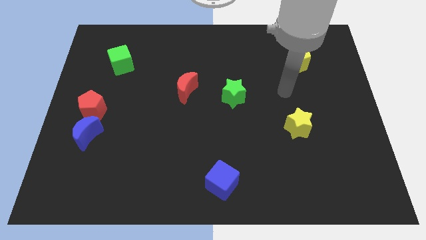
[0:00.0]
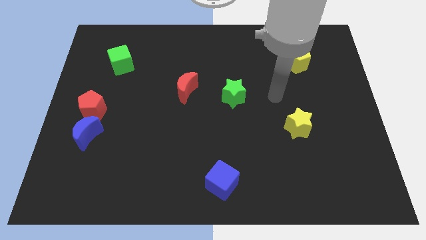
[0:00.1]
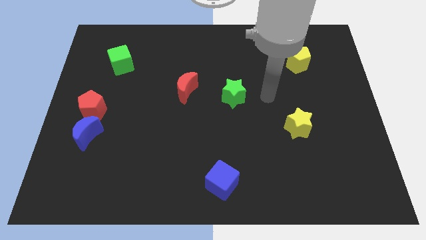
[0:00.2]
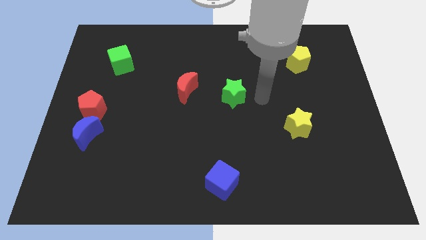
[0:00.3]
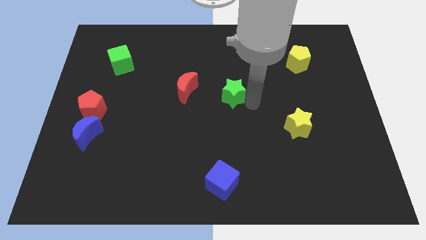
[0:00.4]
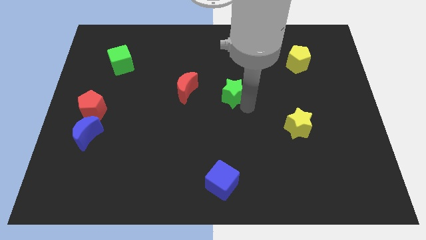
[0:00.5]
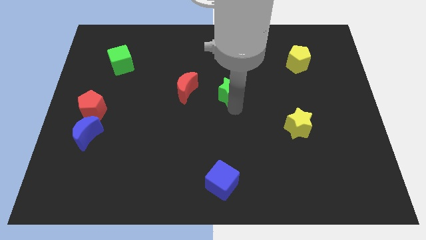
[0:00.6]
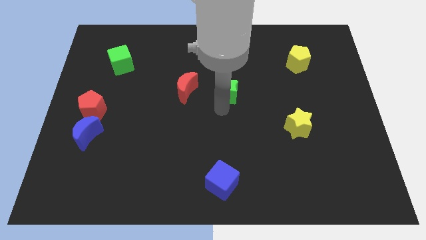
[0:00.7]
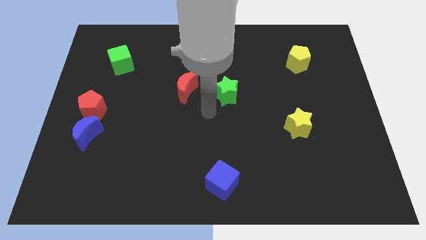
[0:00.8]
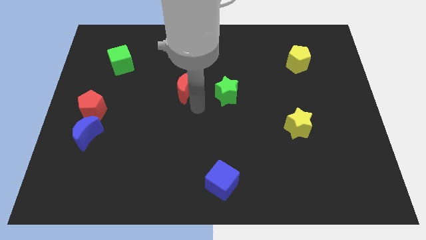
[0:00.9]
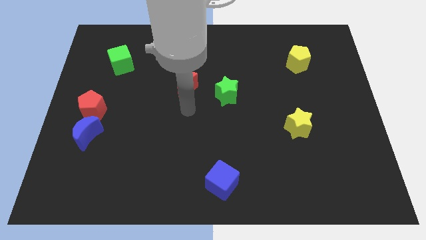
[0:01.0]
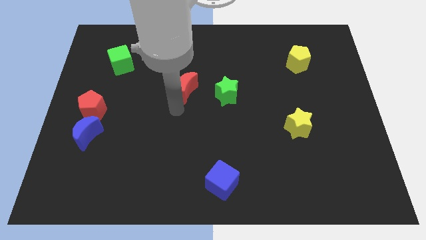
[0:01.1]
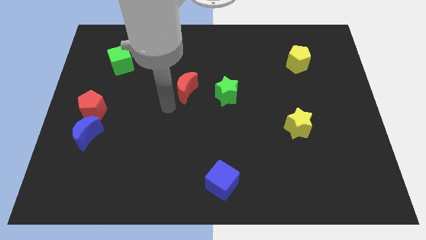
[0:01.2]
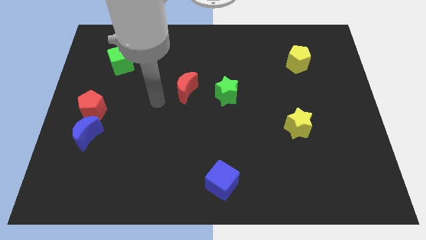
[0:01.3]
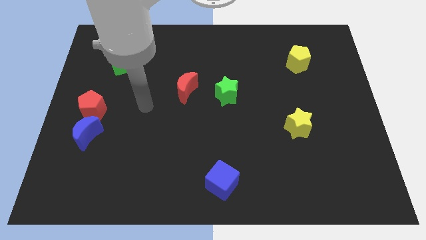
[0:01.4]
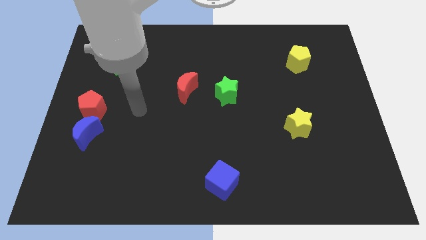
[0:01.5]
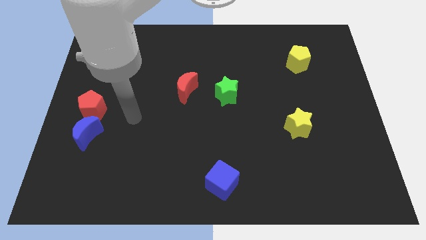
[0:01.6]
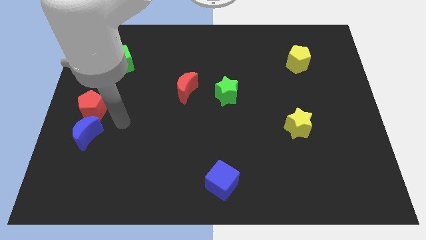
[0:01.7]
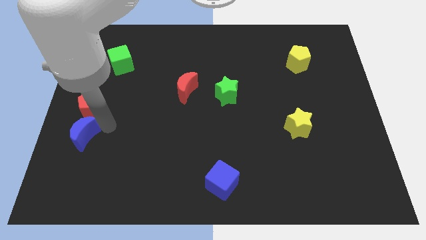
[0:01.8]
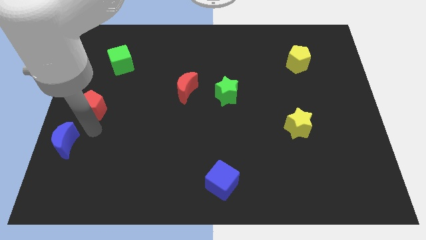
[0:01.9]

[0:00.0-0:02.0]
pull the red pentagon apart from the blue moon

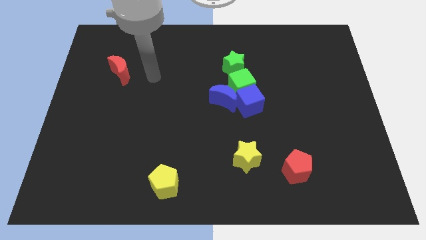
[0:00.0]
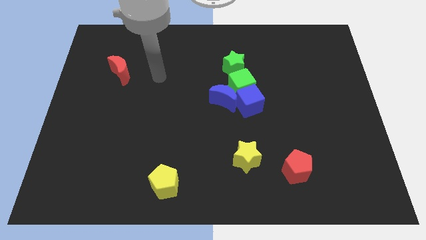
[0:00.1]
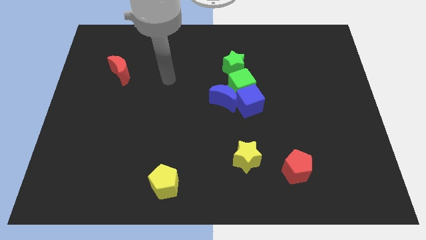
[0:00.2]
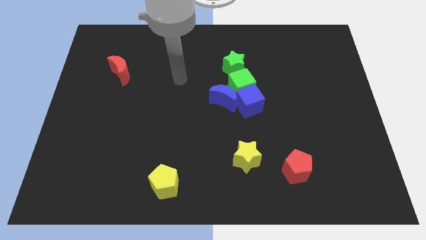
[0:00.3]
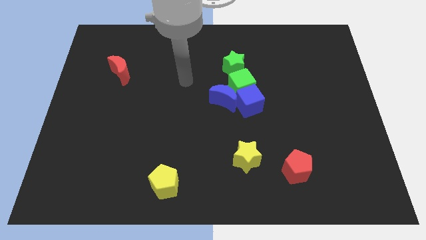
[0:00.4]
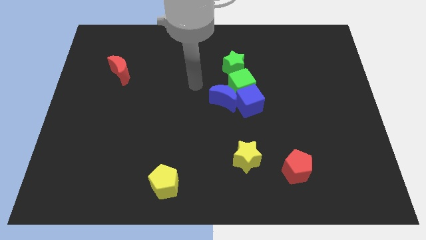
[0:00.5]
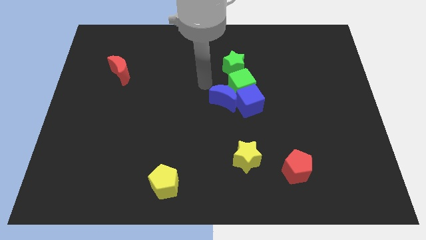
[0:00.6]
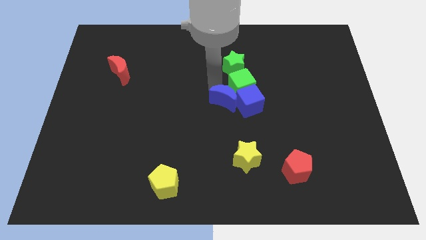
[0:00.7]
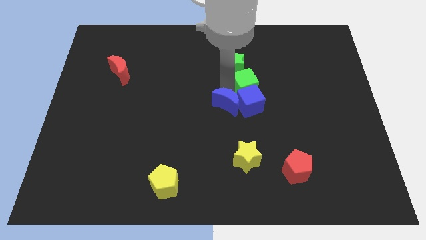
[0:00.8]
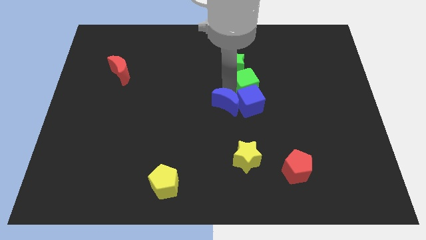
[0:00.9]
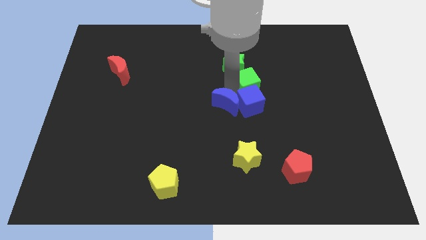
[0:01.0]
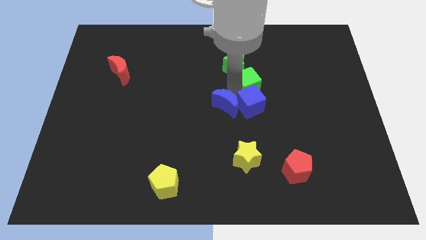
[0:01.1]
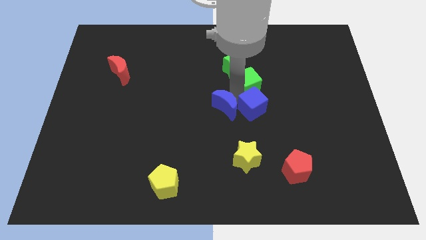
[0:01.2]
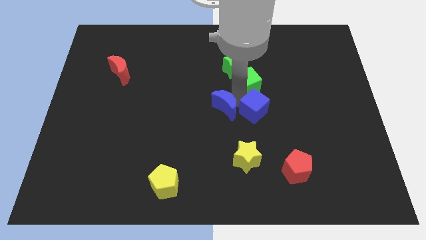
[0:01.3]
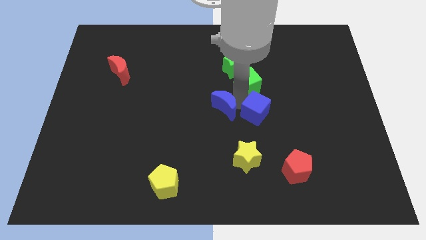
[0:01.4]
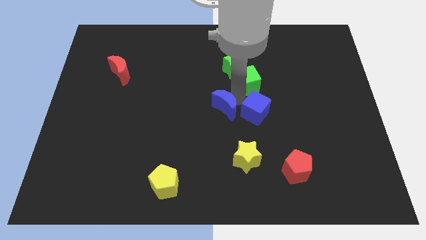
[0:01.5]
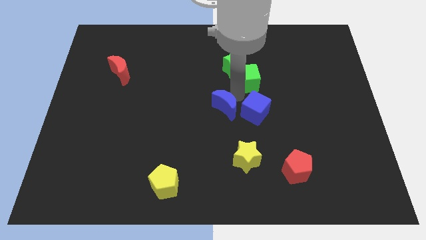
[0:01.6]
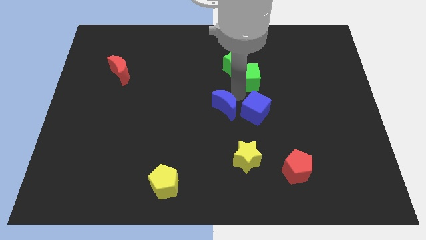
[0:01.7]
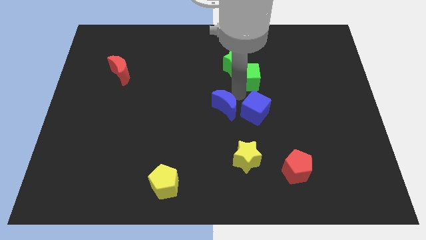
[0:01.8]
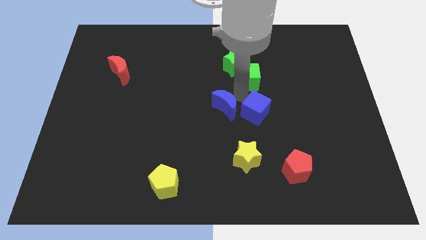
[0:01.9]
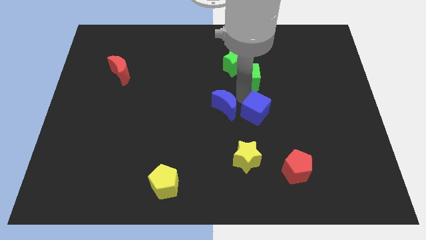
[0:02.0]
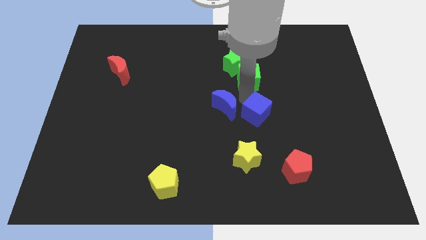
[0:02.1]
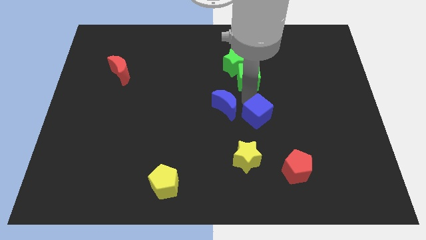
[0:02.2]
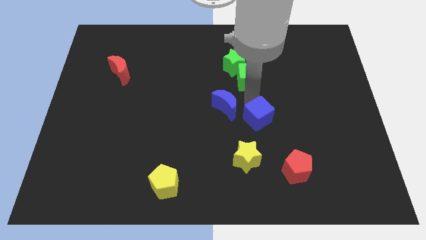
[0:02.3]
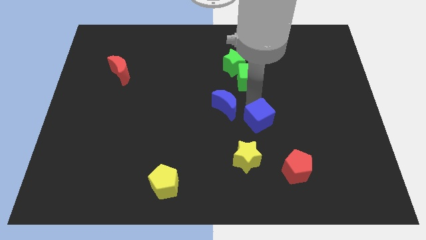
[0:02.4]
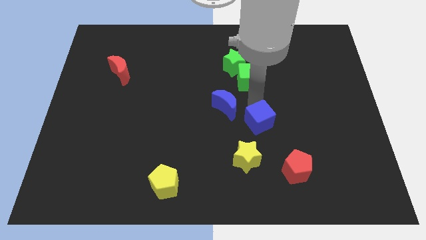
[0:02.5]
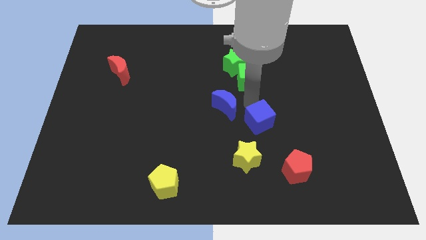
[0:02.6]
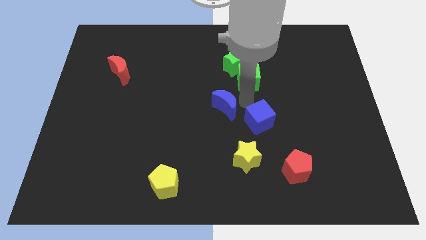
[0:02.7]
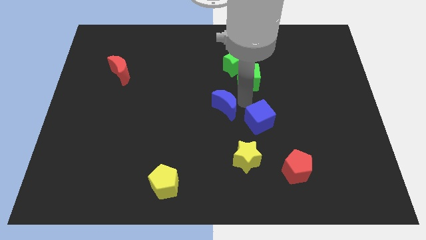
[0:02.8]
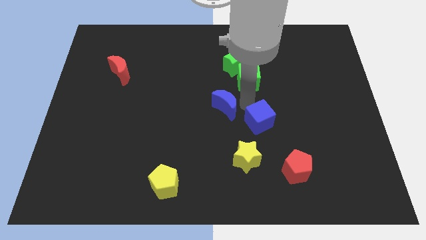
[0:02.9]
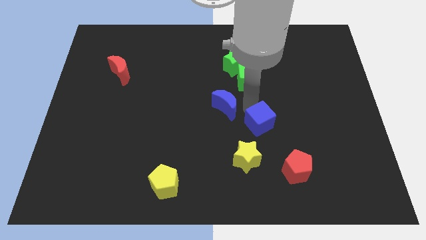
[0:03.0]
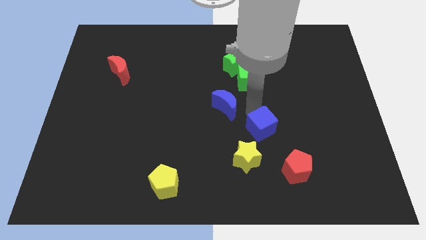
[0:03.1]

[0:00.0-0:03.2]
separate the blue cube from the green cube and blue moon

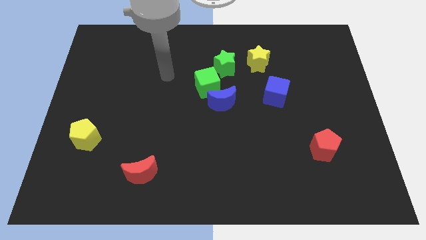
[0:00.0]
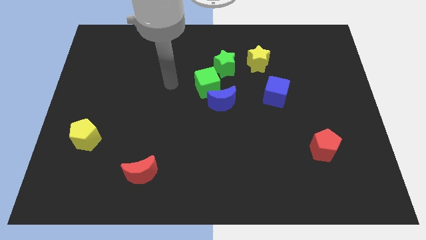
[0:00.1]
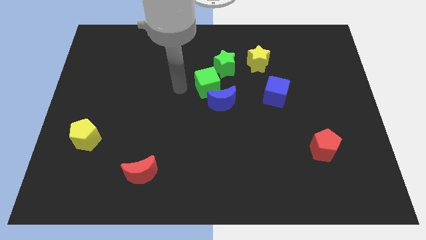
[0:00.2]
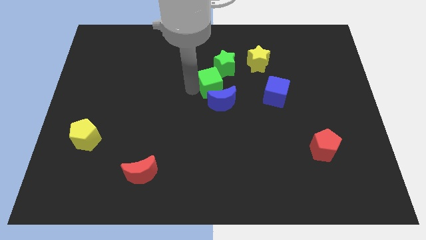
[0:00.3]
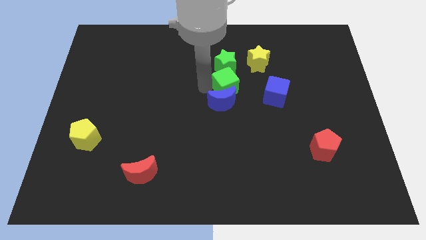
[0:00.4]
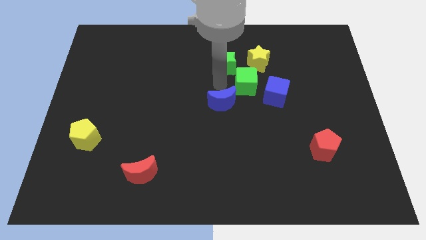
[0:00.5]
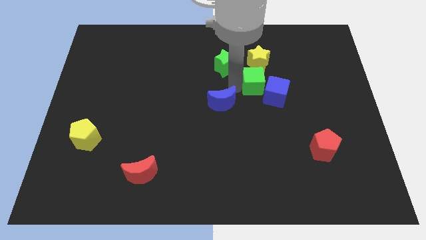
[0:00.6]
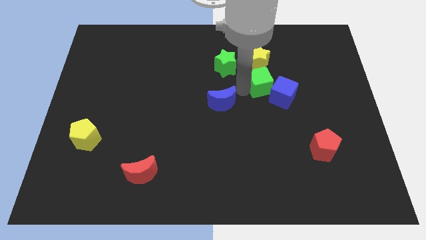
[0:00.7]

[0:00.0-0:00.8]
pull the blue moon apart from the green cube

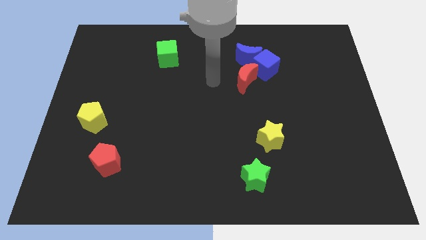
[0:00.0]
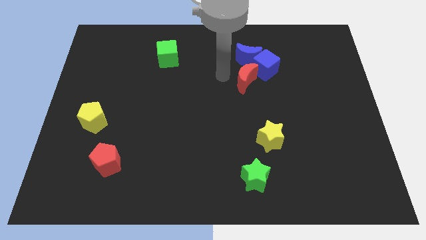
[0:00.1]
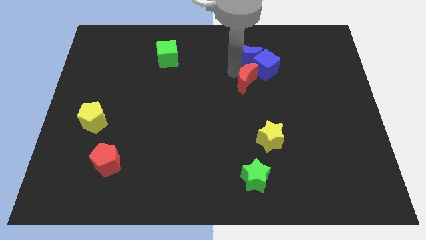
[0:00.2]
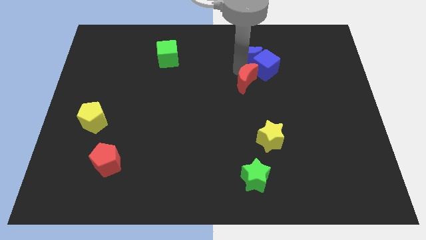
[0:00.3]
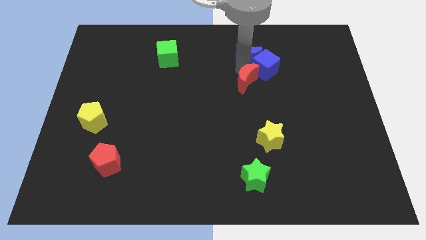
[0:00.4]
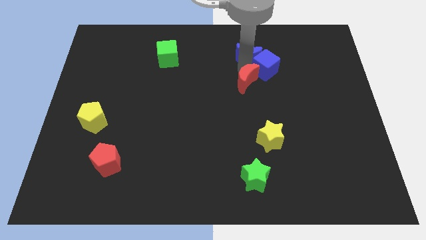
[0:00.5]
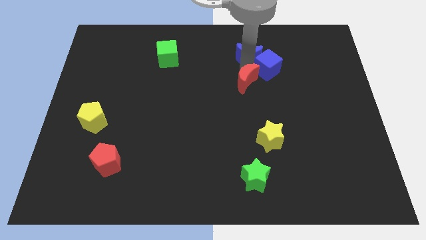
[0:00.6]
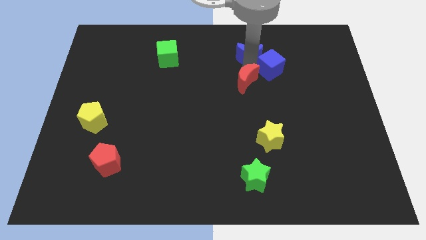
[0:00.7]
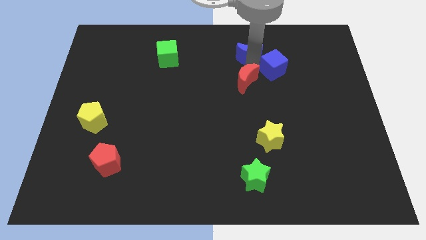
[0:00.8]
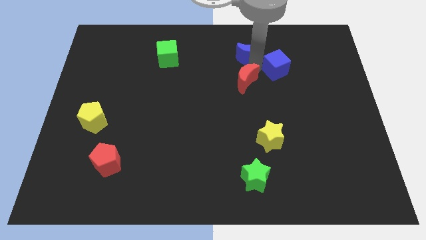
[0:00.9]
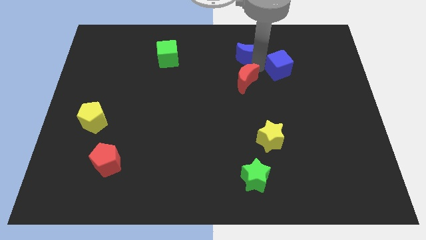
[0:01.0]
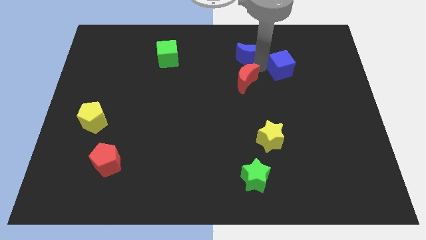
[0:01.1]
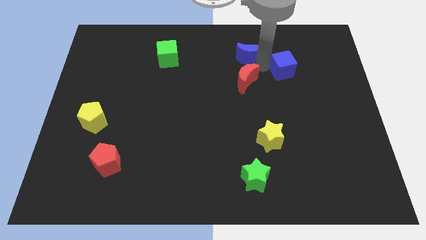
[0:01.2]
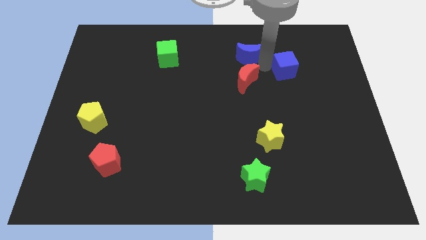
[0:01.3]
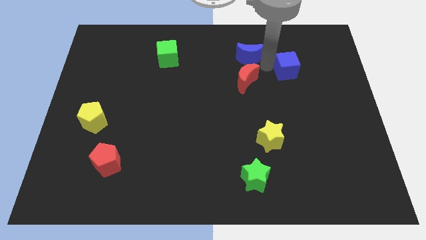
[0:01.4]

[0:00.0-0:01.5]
separate the blue cube from the blue moon and red moon

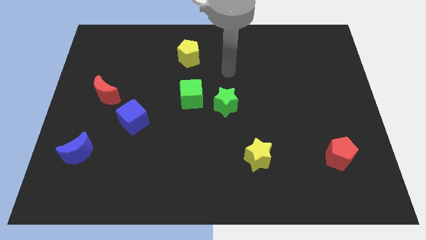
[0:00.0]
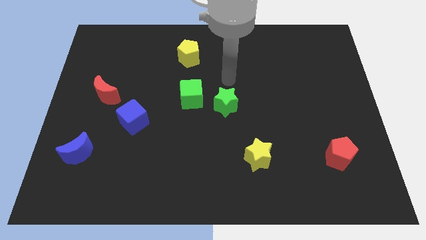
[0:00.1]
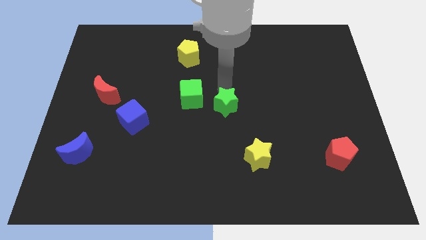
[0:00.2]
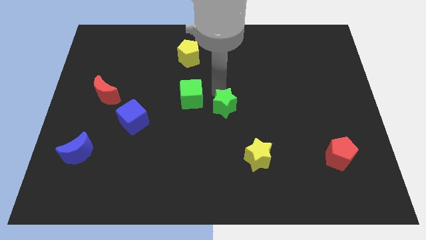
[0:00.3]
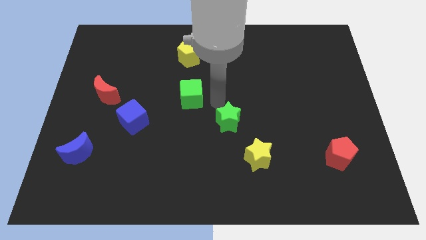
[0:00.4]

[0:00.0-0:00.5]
separate the green cube from the green star

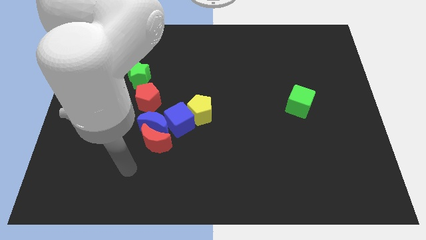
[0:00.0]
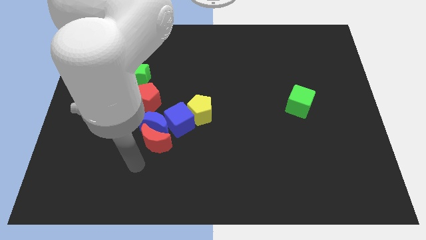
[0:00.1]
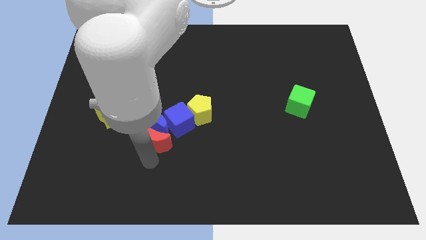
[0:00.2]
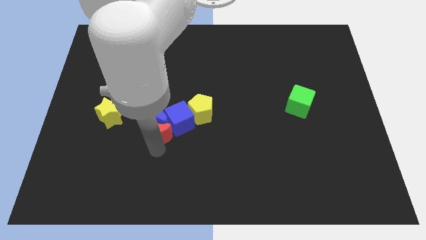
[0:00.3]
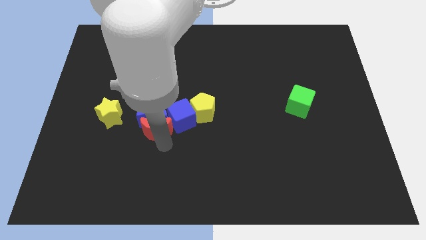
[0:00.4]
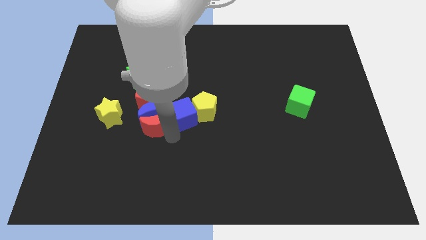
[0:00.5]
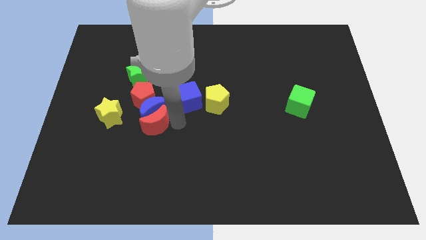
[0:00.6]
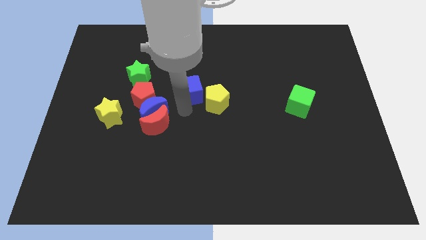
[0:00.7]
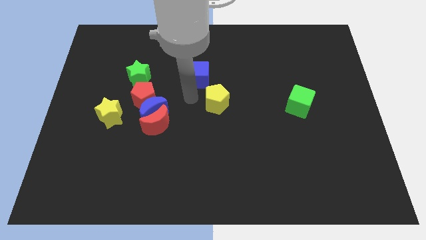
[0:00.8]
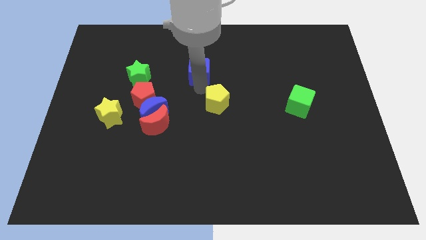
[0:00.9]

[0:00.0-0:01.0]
move the yellow pentagon away from the blue cube

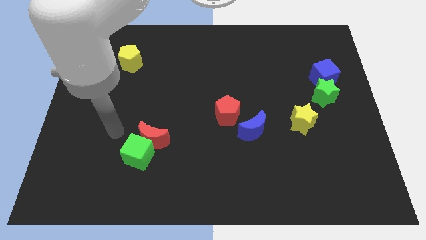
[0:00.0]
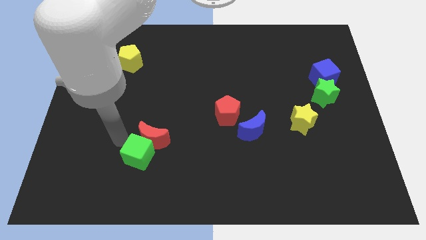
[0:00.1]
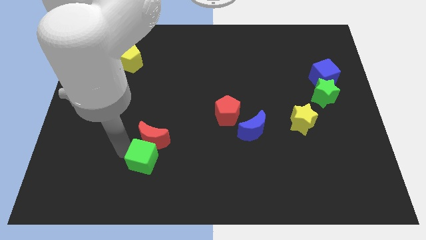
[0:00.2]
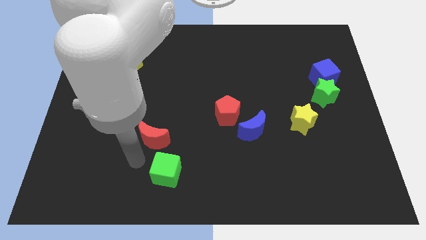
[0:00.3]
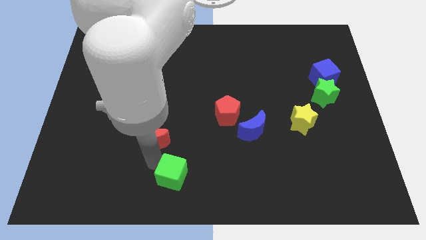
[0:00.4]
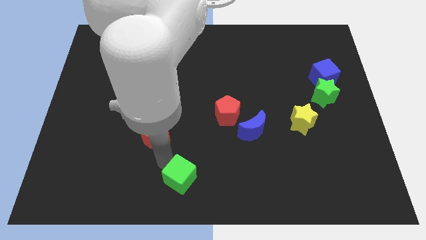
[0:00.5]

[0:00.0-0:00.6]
move the red moon away from the green cube
